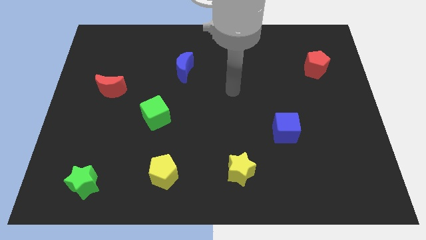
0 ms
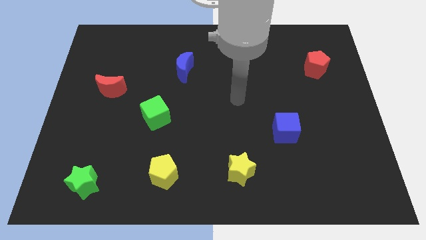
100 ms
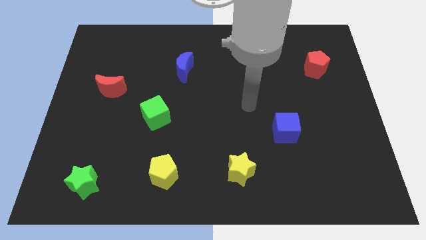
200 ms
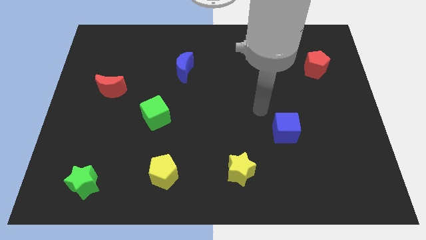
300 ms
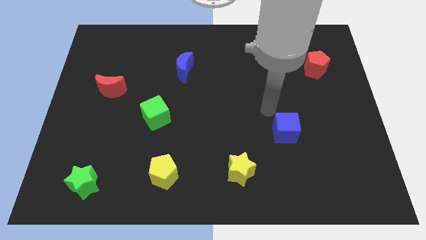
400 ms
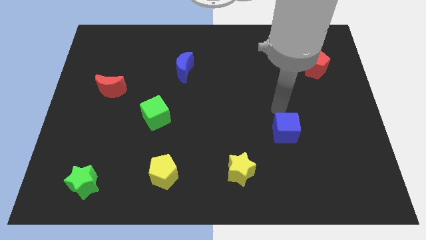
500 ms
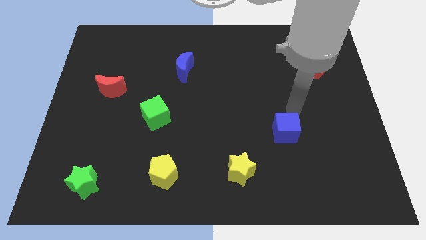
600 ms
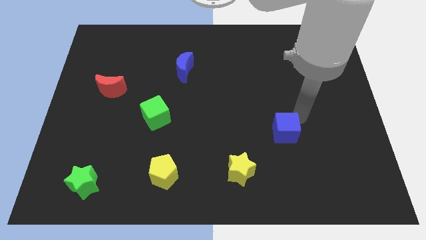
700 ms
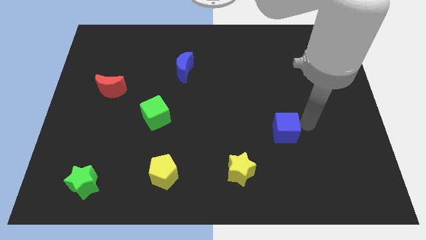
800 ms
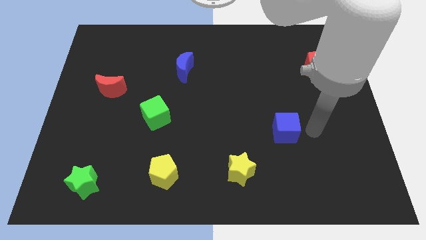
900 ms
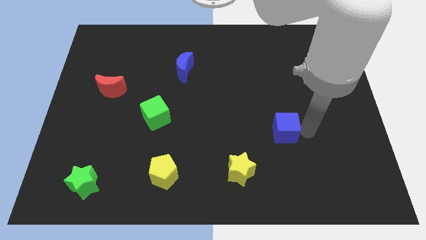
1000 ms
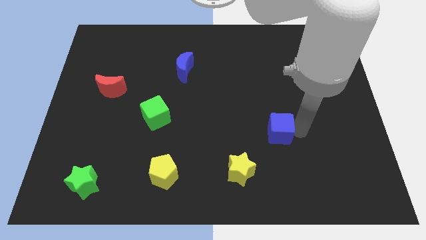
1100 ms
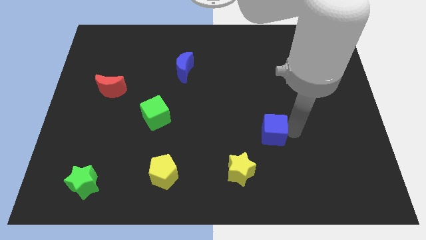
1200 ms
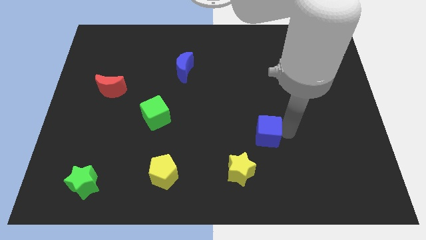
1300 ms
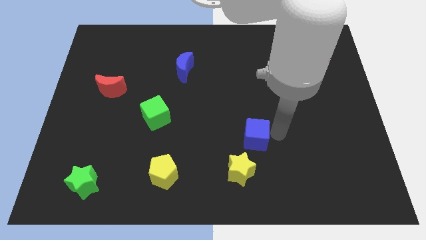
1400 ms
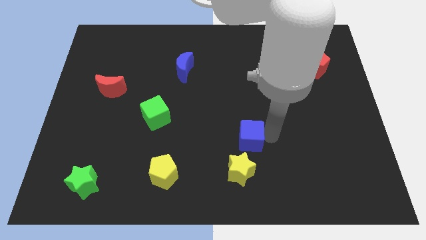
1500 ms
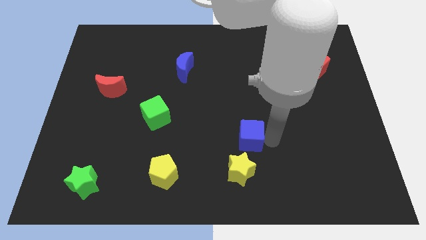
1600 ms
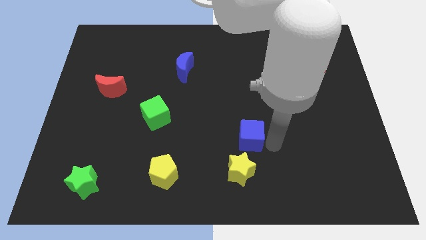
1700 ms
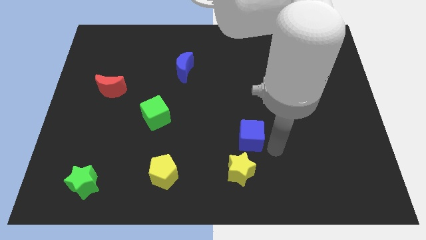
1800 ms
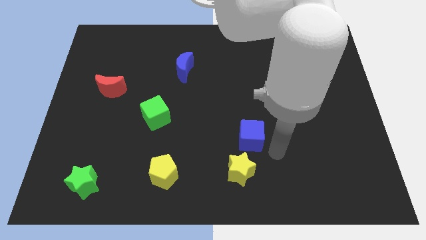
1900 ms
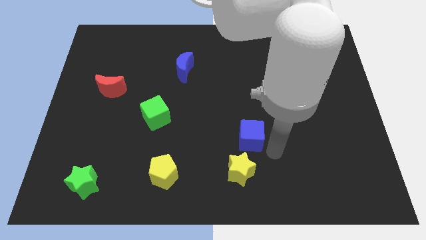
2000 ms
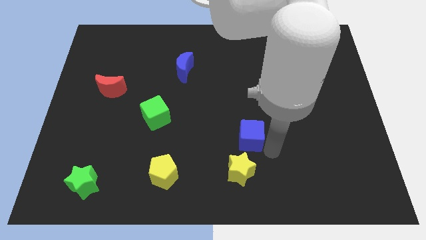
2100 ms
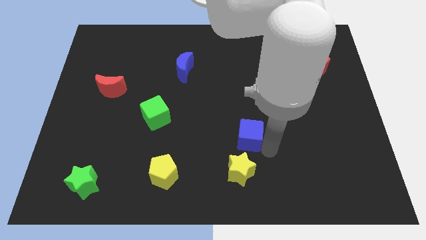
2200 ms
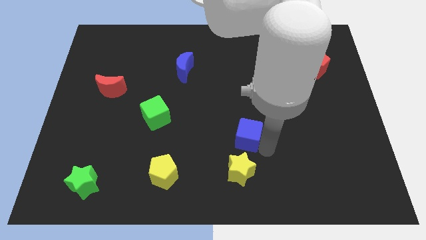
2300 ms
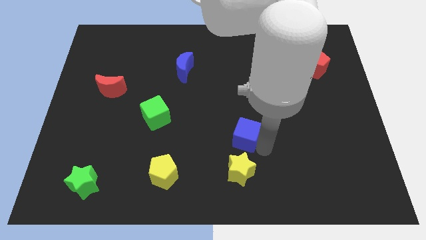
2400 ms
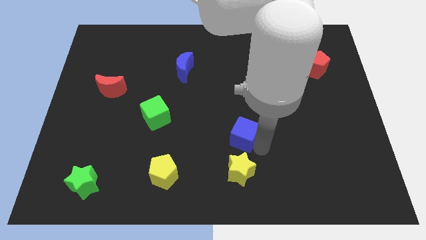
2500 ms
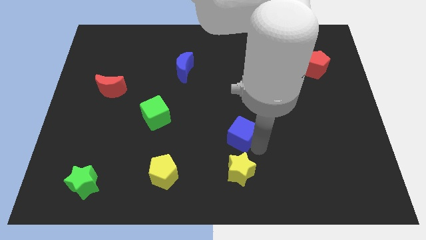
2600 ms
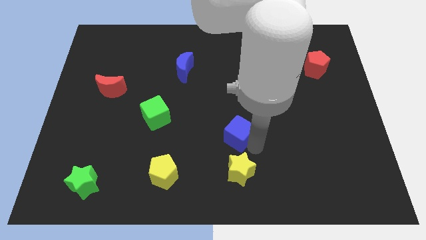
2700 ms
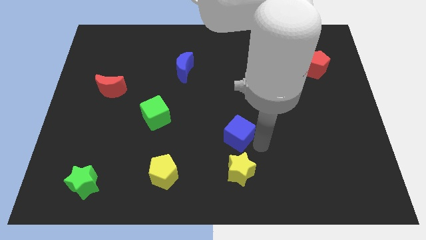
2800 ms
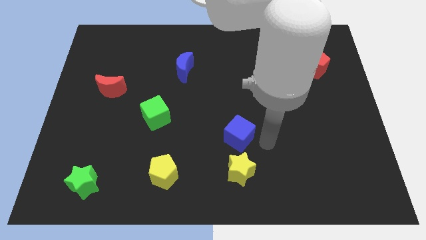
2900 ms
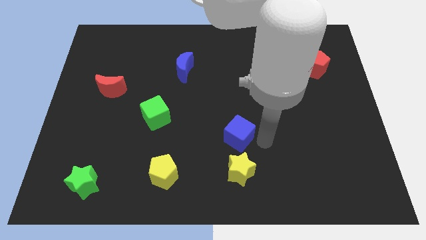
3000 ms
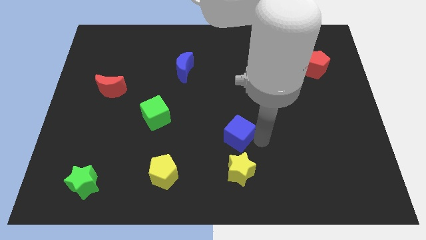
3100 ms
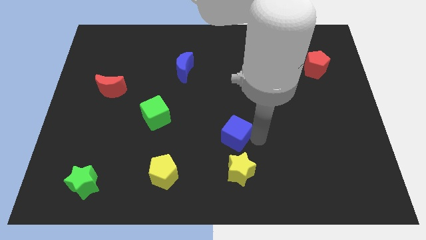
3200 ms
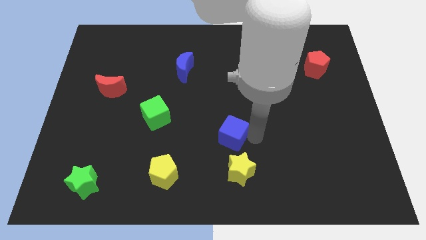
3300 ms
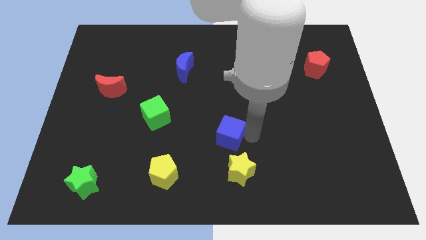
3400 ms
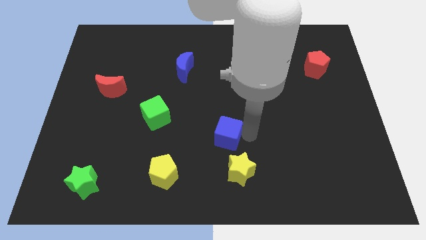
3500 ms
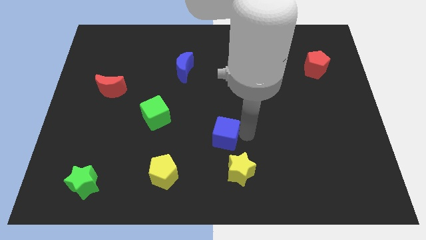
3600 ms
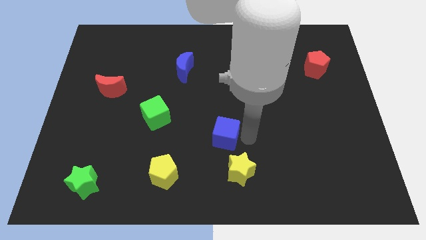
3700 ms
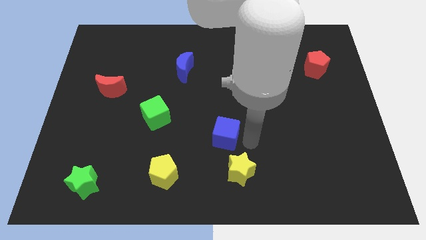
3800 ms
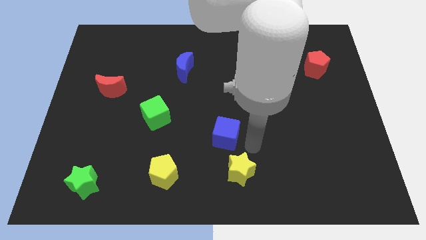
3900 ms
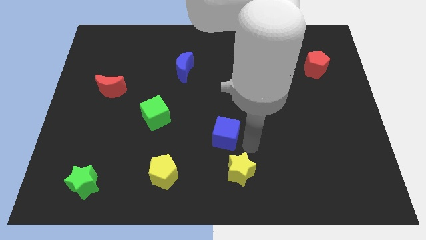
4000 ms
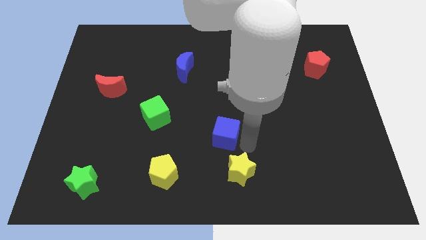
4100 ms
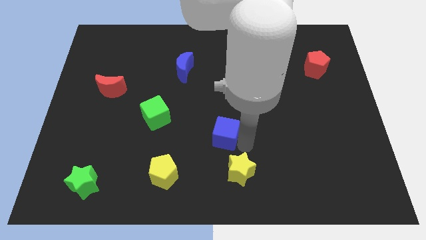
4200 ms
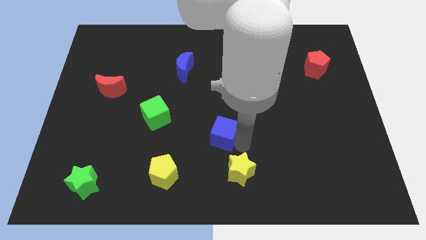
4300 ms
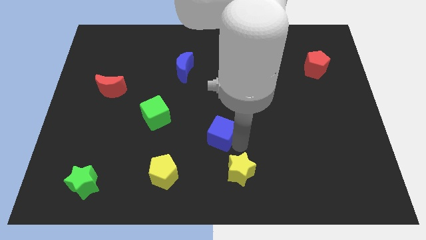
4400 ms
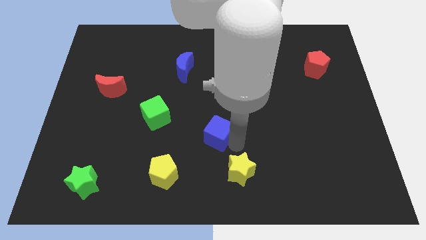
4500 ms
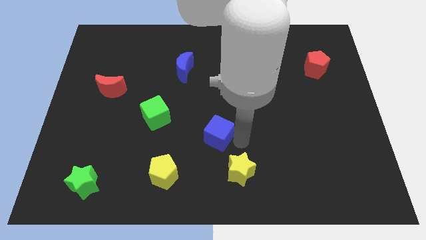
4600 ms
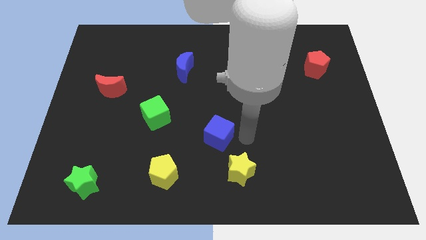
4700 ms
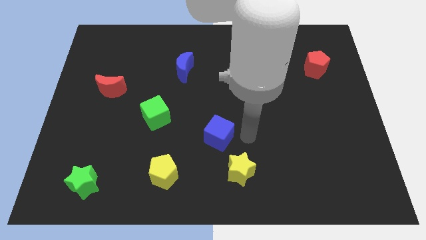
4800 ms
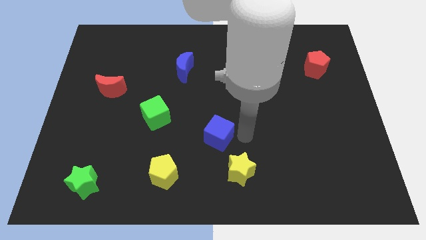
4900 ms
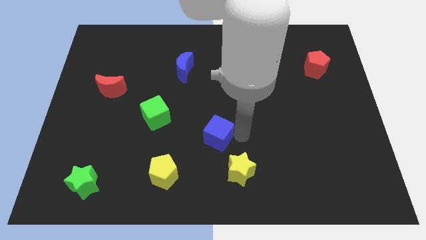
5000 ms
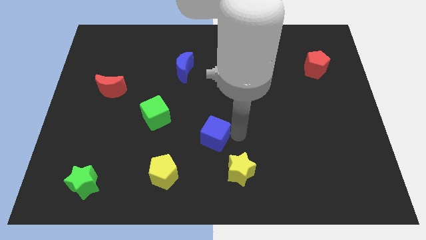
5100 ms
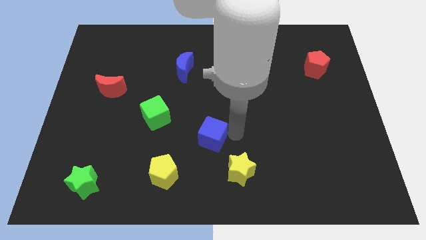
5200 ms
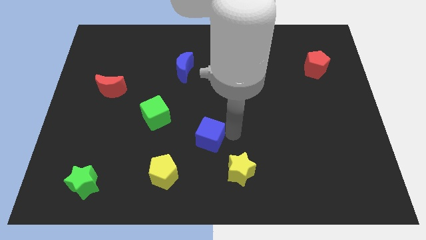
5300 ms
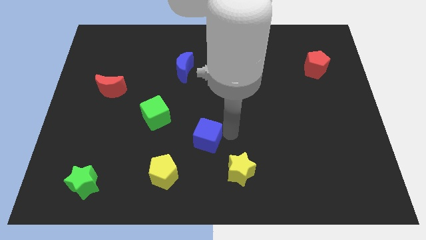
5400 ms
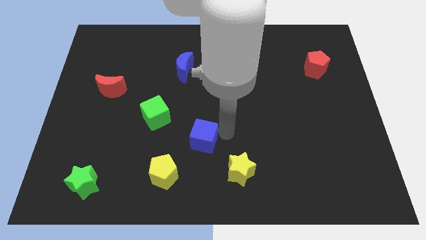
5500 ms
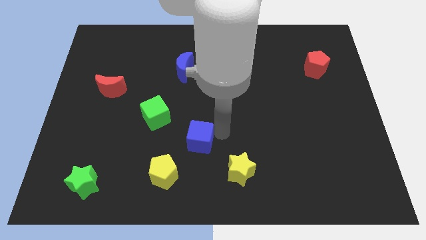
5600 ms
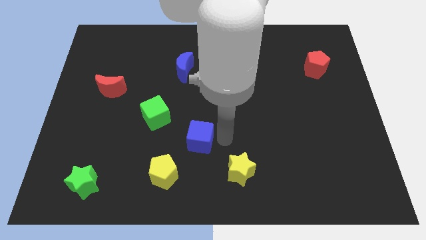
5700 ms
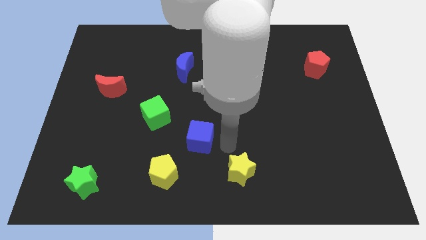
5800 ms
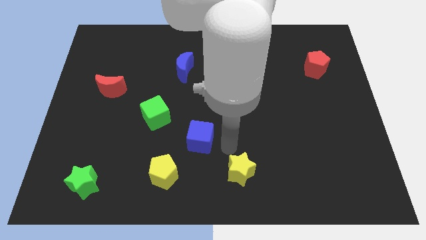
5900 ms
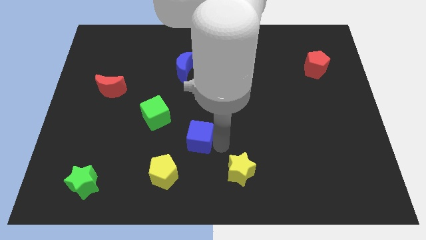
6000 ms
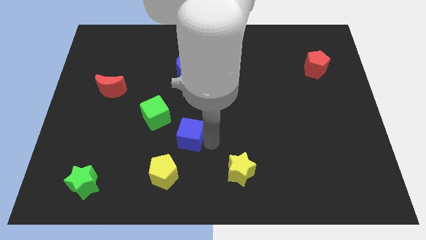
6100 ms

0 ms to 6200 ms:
slide the blue cube to the left

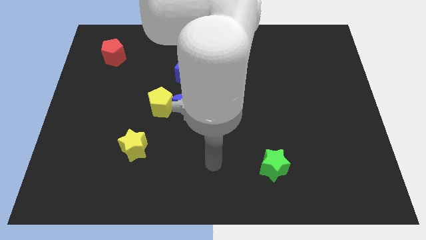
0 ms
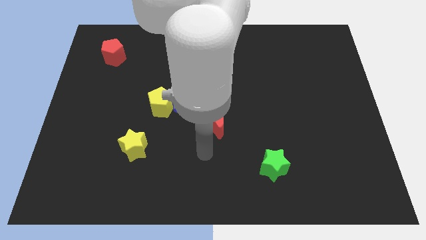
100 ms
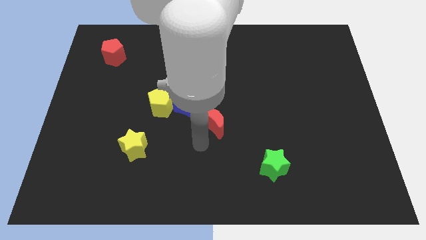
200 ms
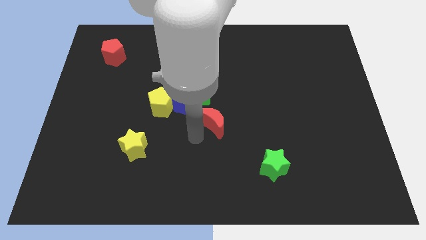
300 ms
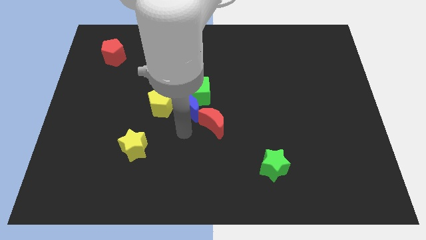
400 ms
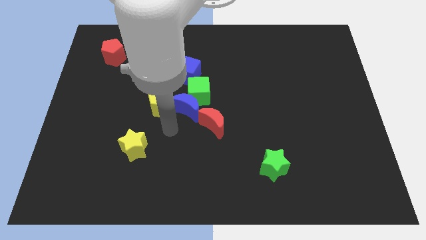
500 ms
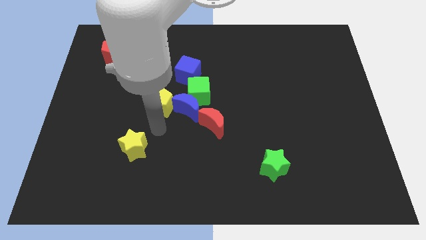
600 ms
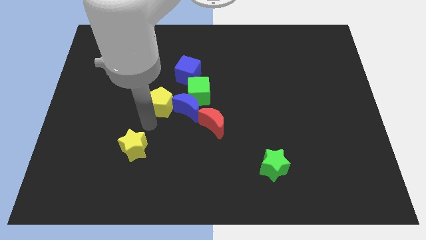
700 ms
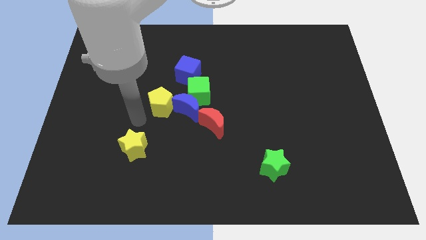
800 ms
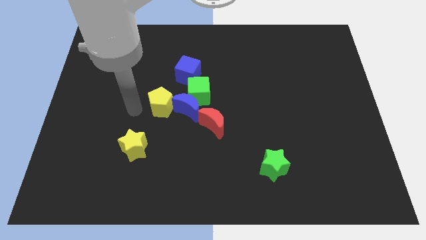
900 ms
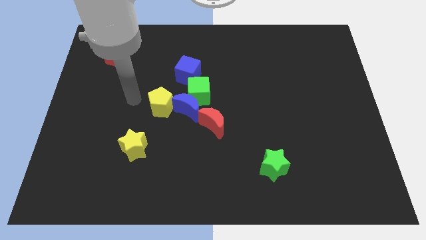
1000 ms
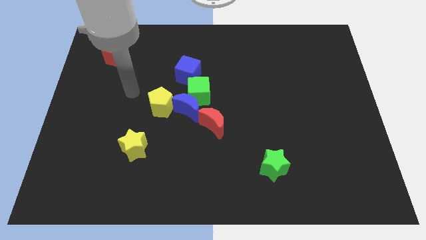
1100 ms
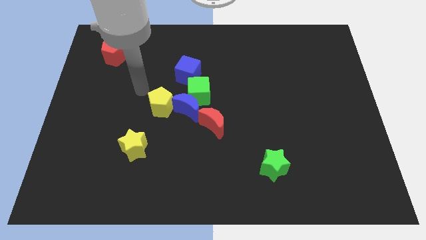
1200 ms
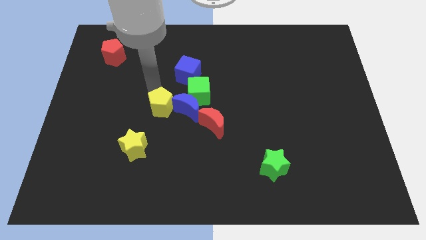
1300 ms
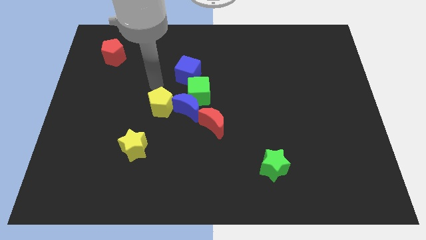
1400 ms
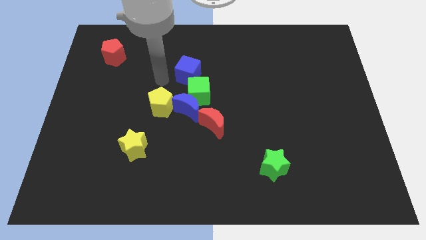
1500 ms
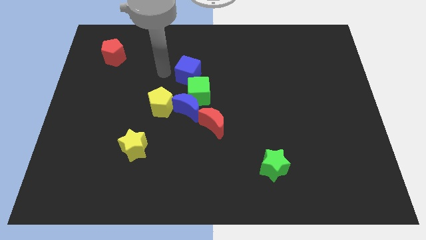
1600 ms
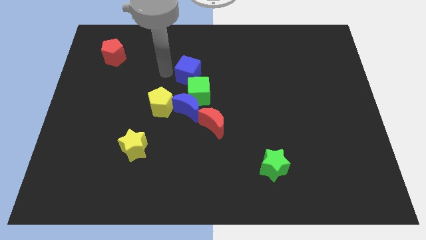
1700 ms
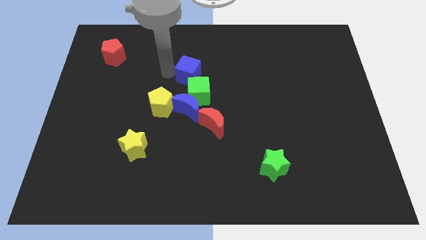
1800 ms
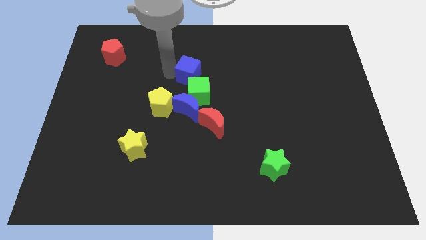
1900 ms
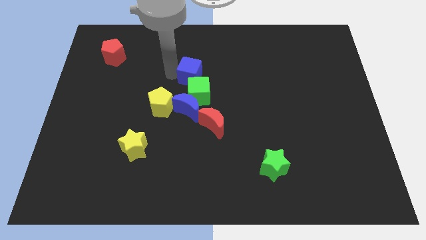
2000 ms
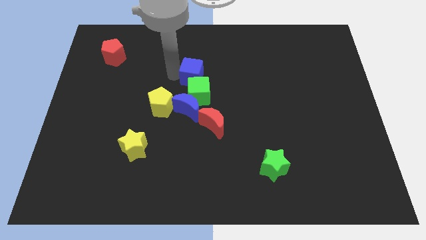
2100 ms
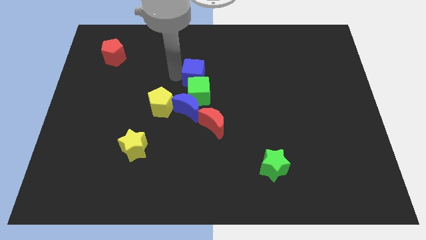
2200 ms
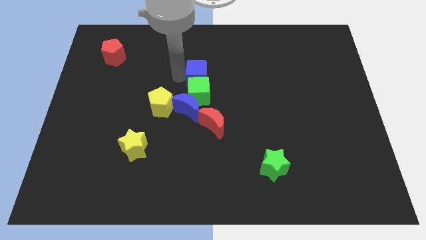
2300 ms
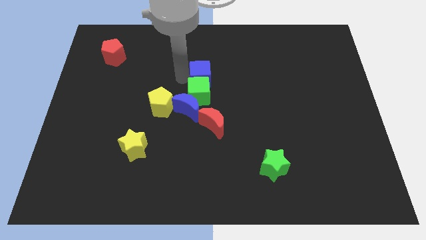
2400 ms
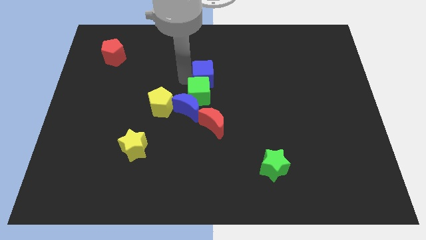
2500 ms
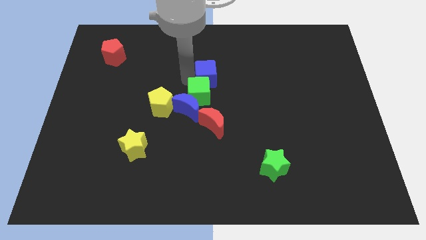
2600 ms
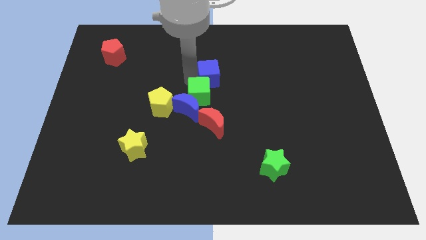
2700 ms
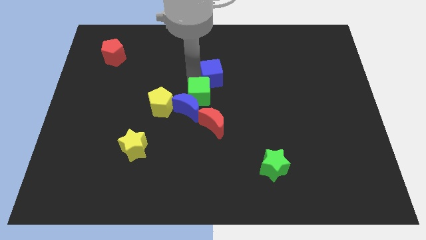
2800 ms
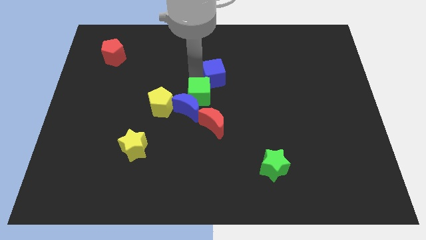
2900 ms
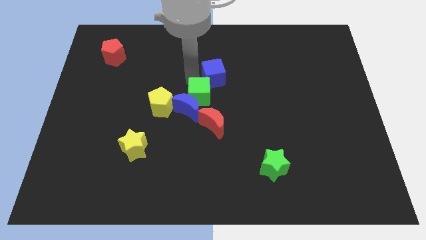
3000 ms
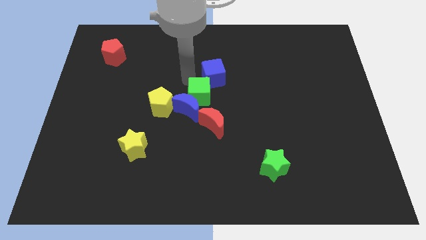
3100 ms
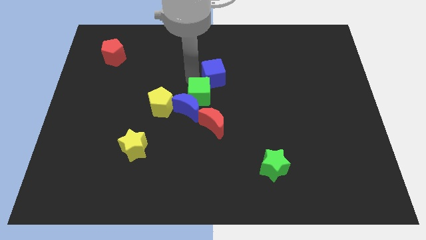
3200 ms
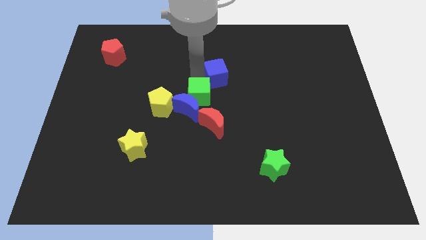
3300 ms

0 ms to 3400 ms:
move the blue cube a bit to the right
